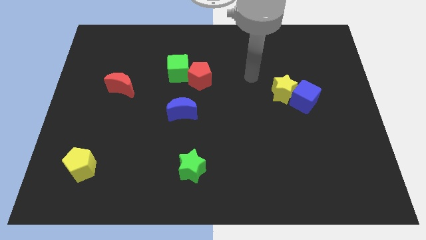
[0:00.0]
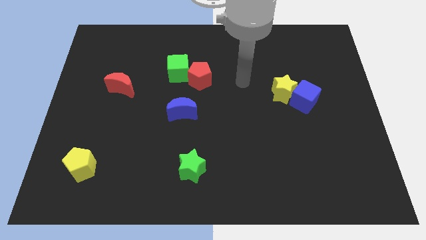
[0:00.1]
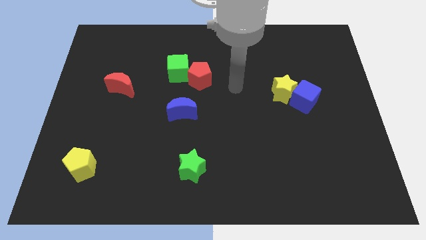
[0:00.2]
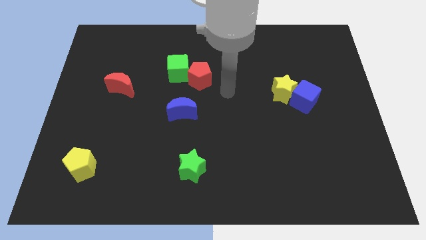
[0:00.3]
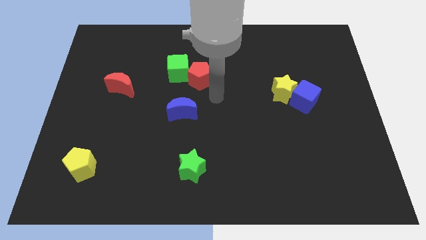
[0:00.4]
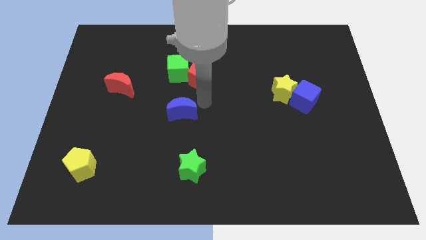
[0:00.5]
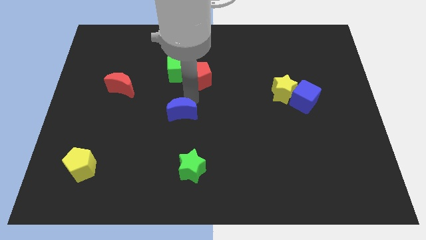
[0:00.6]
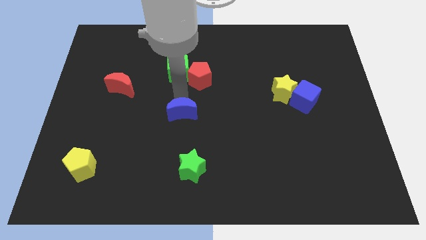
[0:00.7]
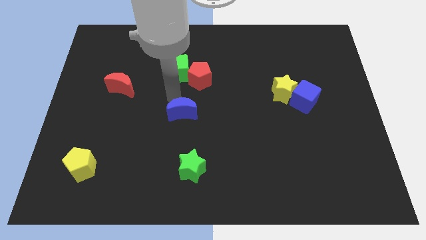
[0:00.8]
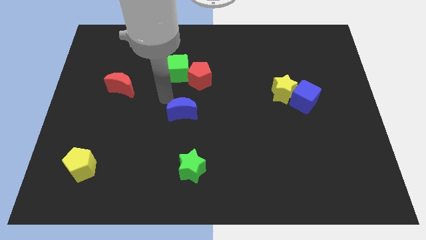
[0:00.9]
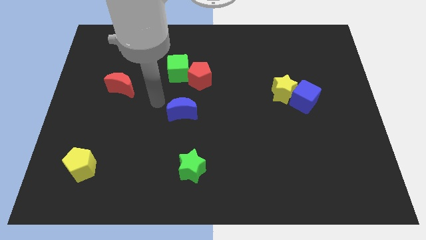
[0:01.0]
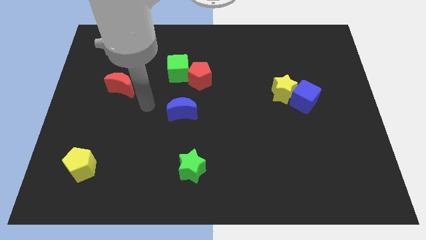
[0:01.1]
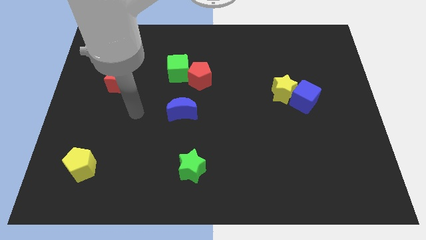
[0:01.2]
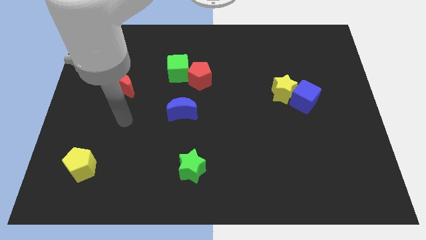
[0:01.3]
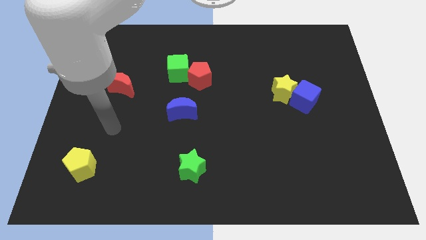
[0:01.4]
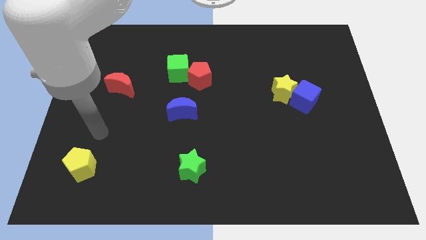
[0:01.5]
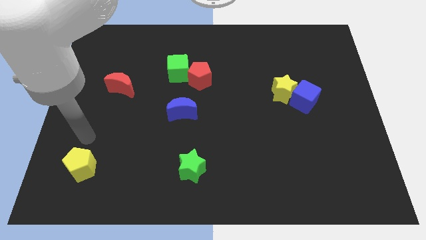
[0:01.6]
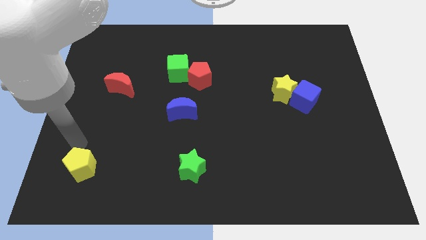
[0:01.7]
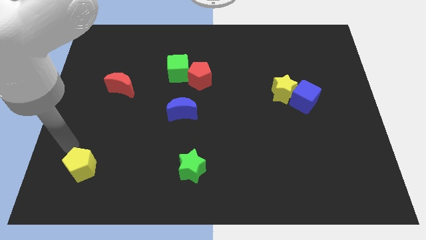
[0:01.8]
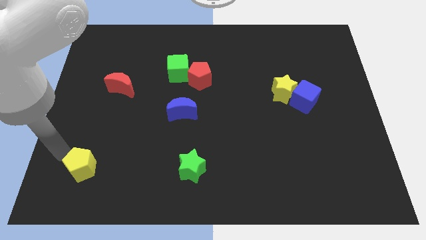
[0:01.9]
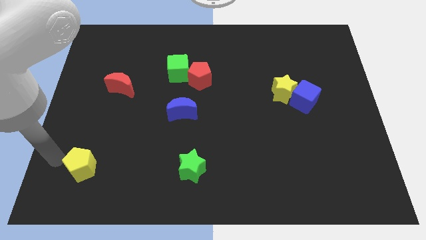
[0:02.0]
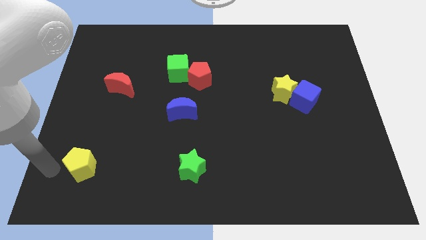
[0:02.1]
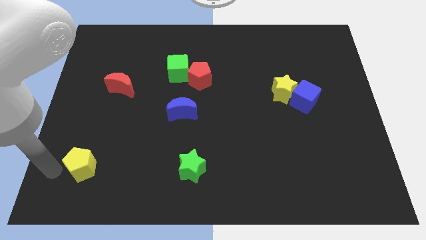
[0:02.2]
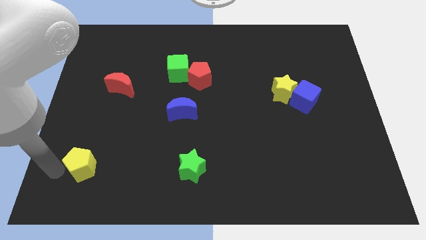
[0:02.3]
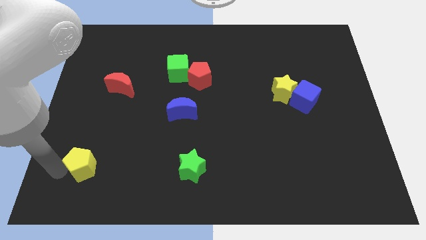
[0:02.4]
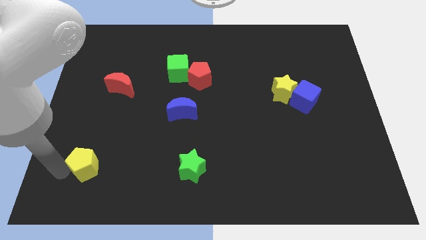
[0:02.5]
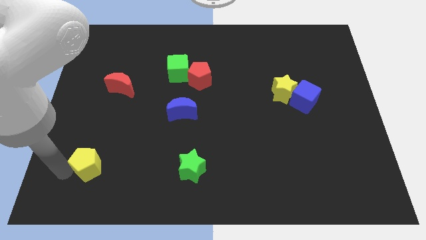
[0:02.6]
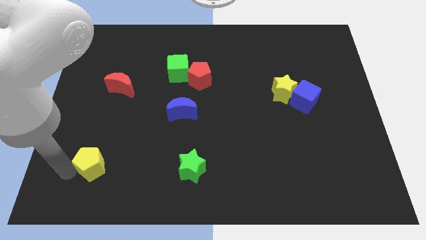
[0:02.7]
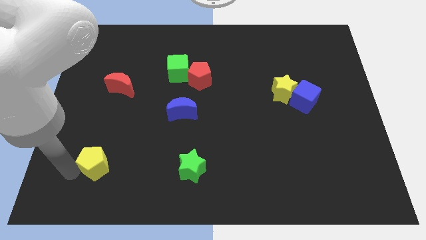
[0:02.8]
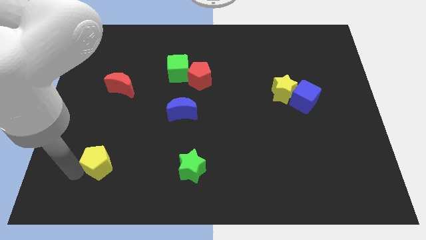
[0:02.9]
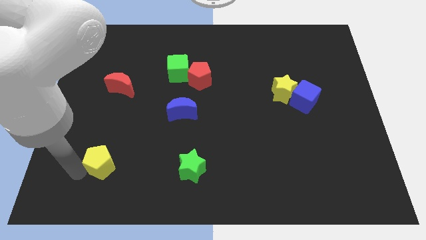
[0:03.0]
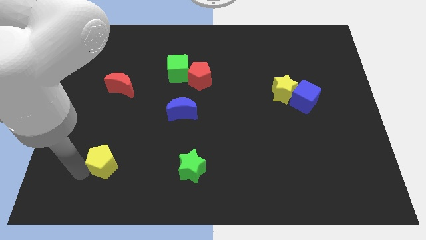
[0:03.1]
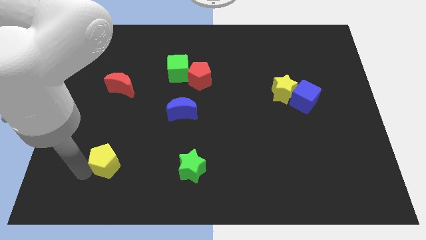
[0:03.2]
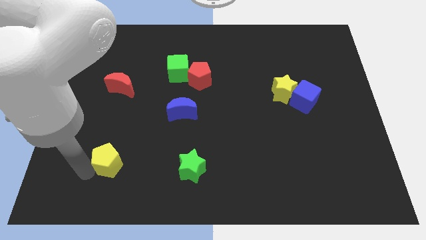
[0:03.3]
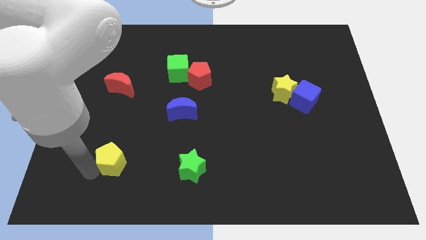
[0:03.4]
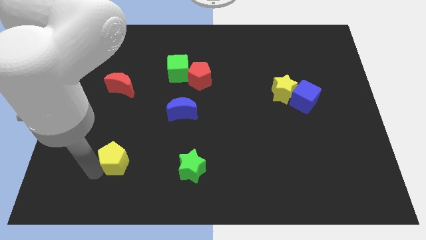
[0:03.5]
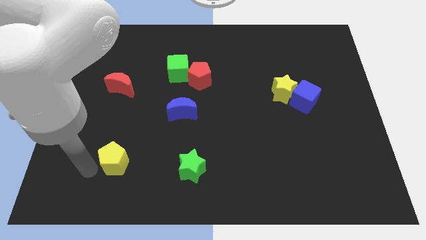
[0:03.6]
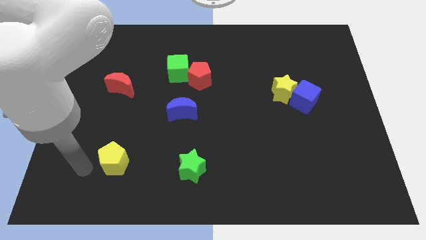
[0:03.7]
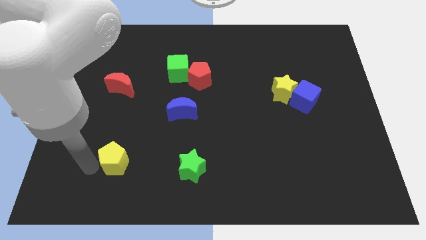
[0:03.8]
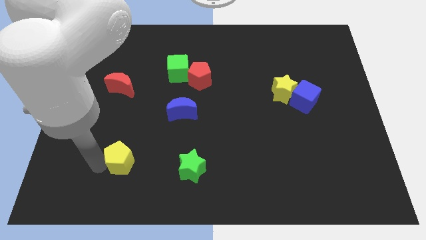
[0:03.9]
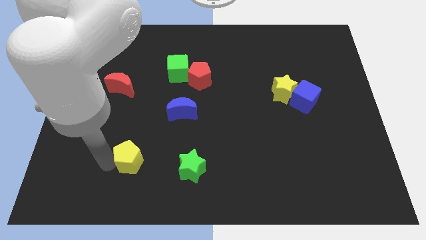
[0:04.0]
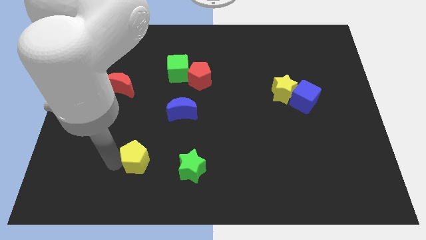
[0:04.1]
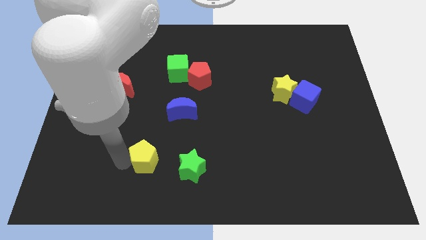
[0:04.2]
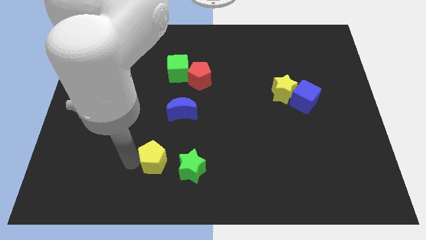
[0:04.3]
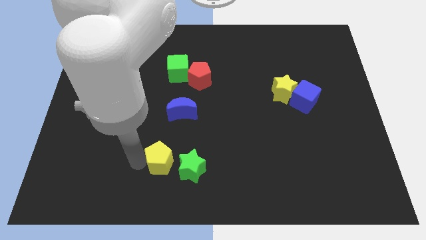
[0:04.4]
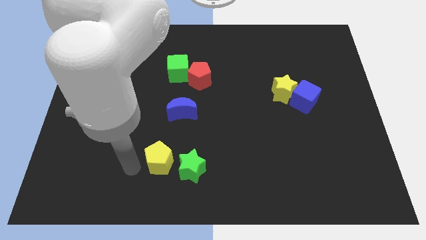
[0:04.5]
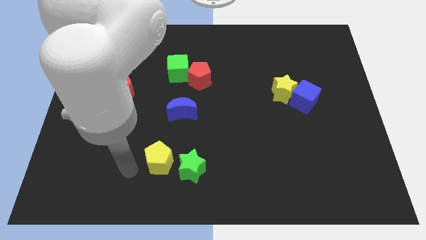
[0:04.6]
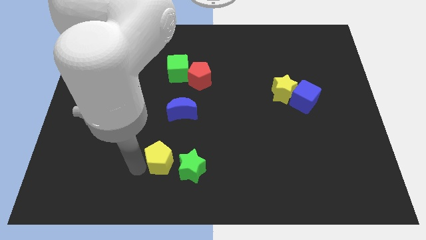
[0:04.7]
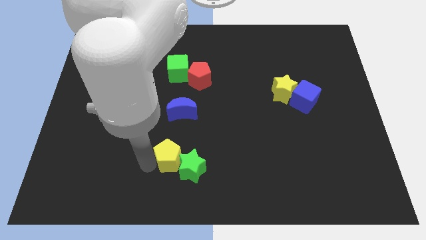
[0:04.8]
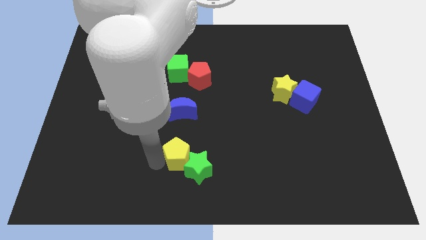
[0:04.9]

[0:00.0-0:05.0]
move the yellow pentagon right

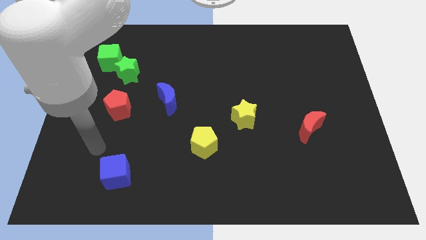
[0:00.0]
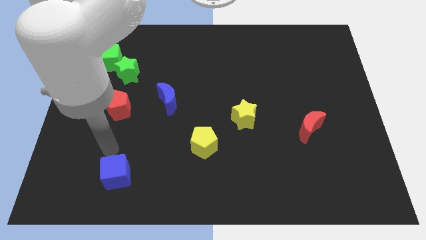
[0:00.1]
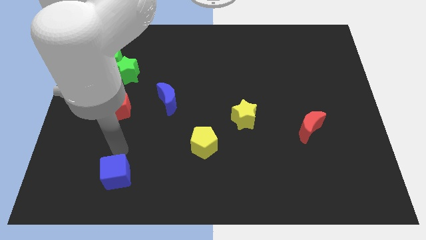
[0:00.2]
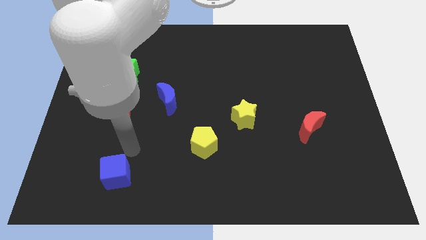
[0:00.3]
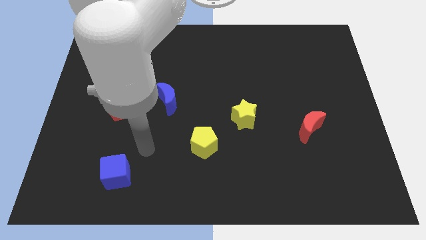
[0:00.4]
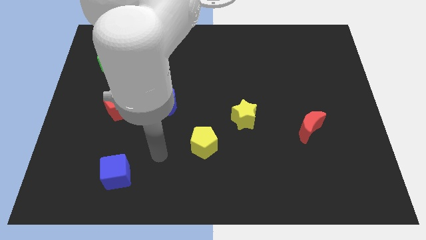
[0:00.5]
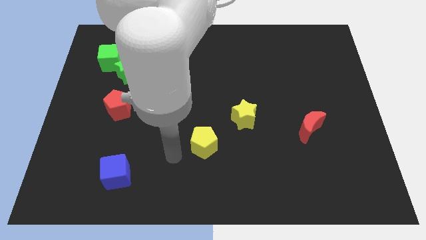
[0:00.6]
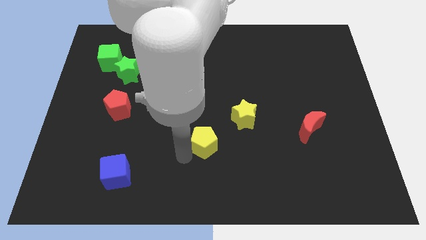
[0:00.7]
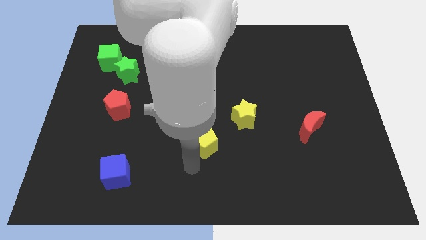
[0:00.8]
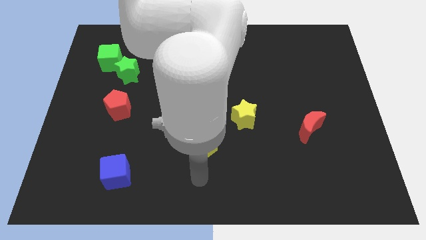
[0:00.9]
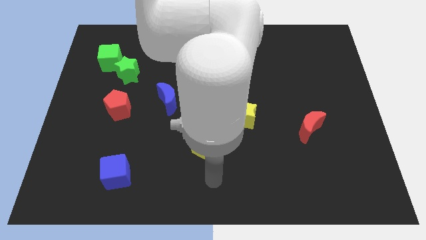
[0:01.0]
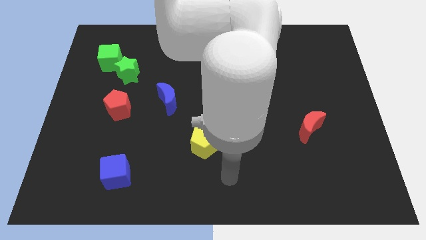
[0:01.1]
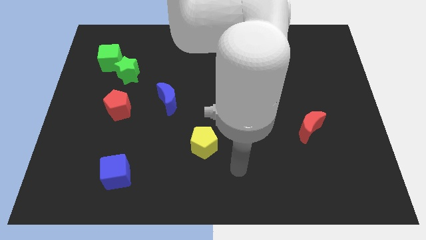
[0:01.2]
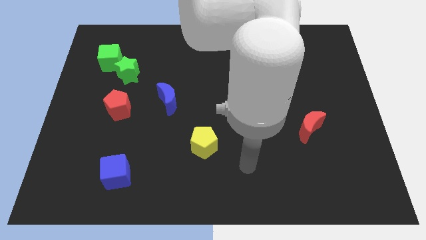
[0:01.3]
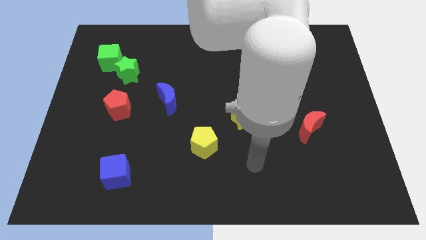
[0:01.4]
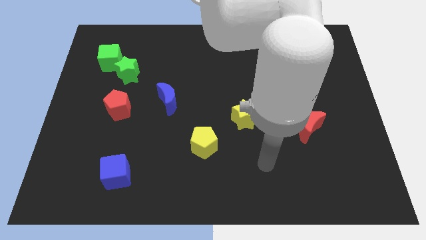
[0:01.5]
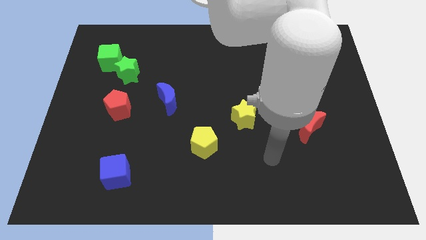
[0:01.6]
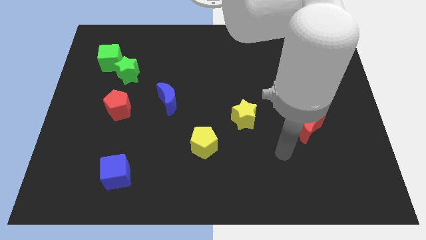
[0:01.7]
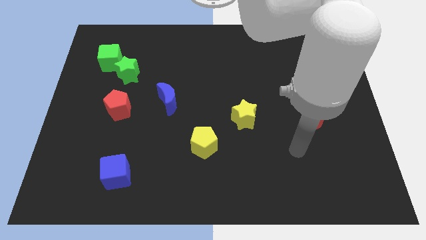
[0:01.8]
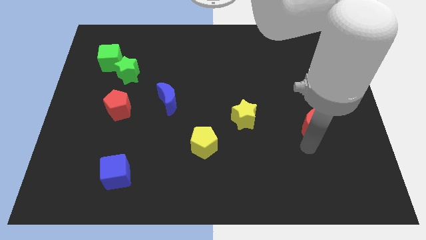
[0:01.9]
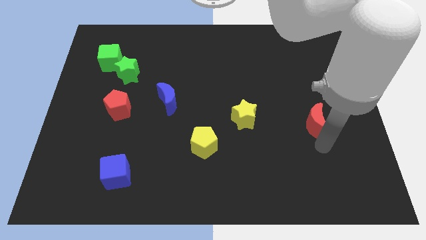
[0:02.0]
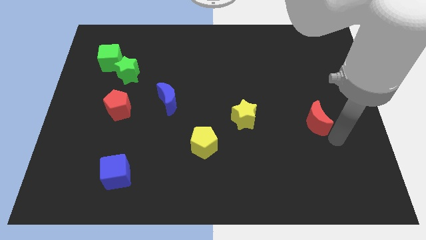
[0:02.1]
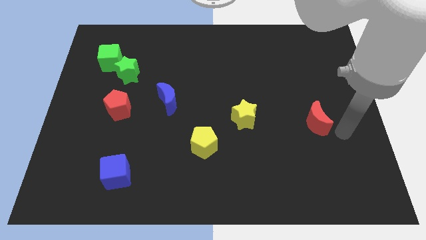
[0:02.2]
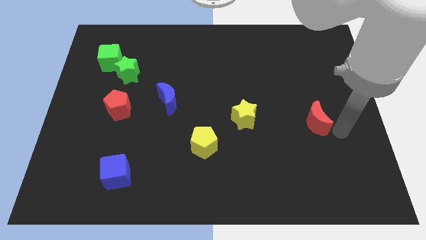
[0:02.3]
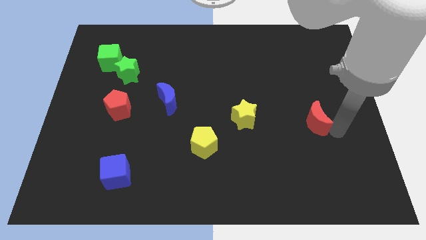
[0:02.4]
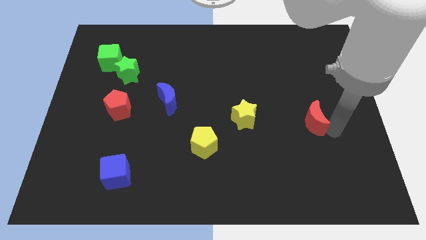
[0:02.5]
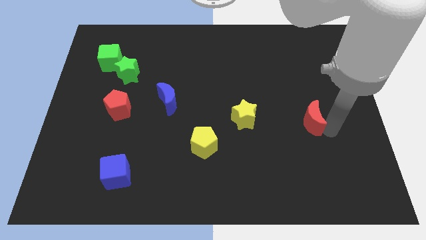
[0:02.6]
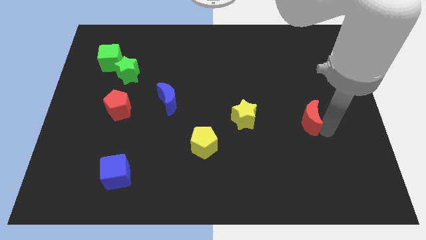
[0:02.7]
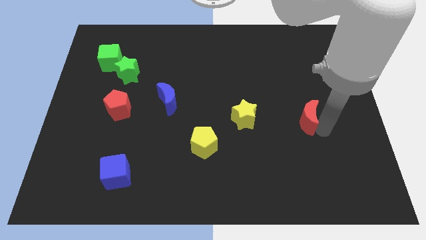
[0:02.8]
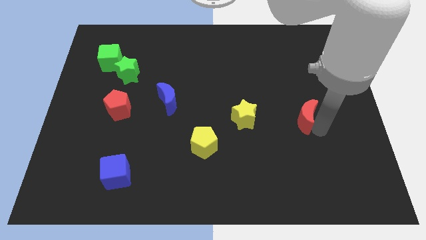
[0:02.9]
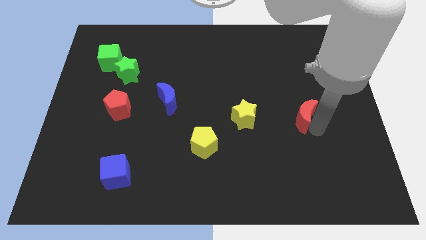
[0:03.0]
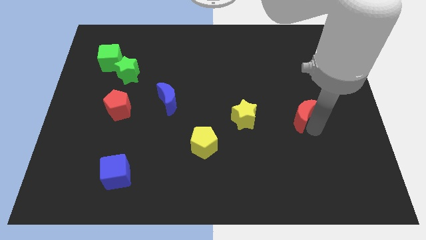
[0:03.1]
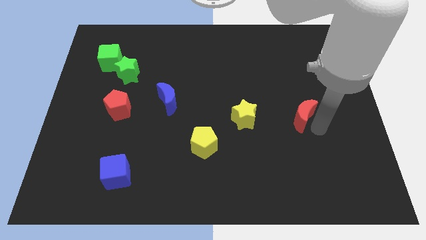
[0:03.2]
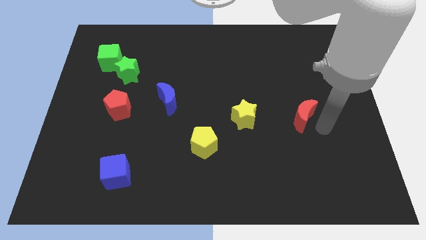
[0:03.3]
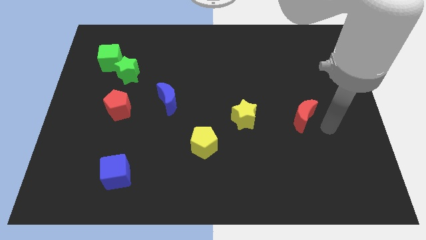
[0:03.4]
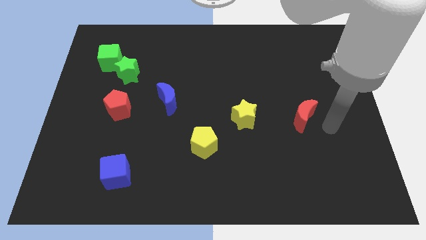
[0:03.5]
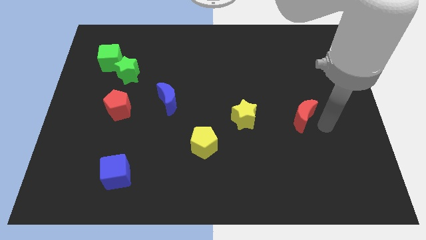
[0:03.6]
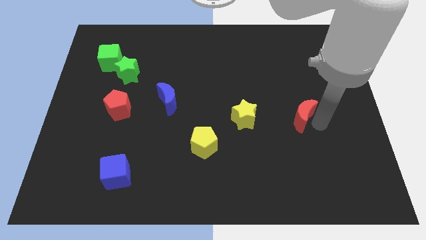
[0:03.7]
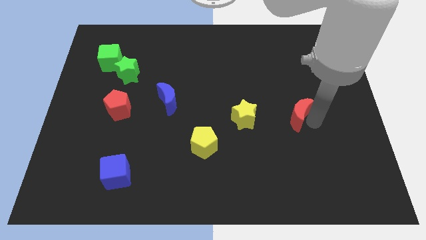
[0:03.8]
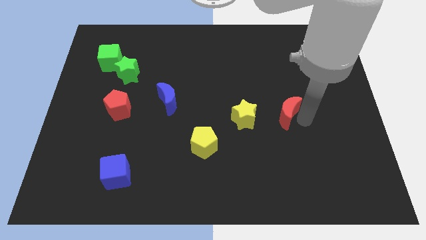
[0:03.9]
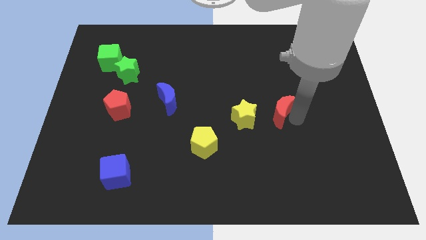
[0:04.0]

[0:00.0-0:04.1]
slide the red moon somewhat diagonally upwards and left
